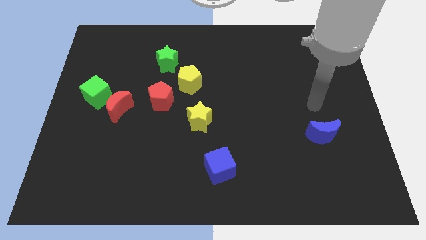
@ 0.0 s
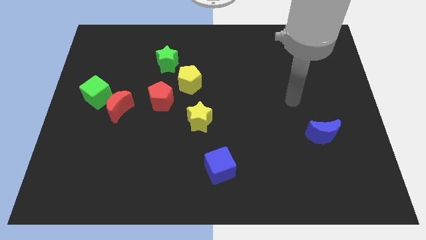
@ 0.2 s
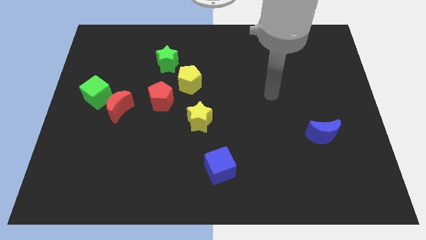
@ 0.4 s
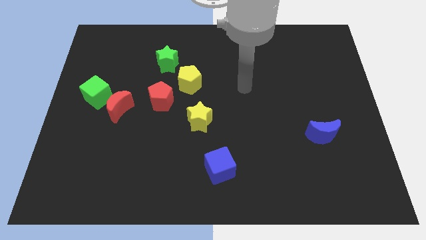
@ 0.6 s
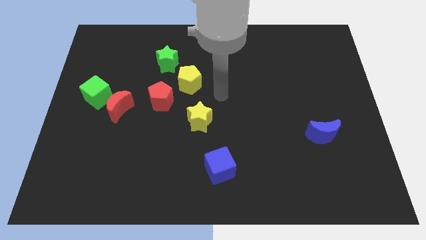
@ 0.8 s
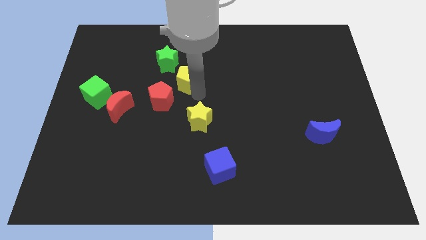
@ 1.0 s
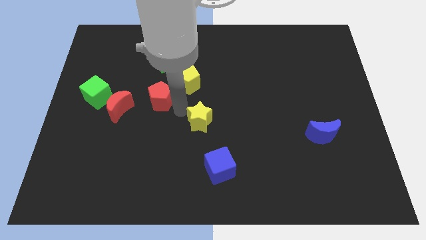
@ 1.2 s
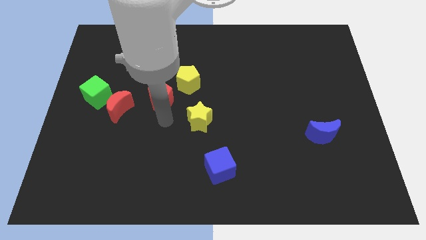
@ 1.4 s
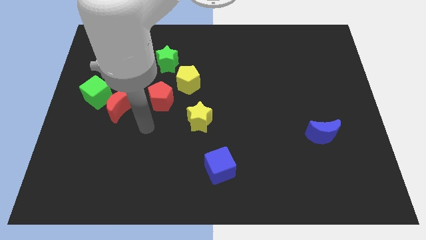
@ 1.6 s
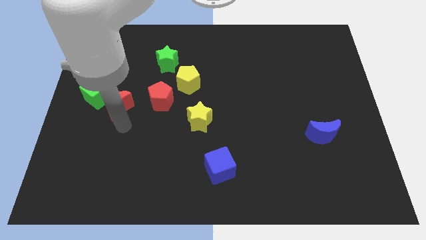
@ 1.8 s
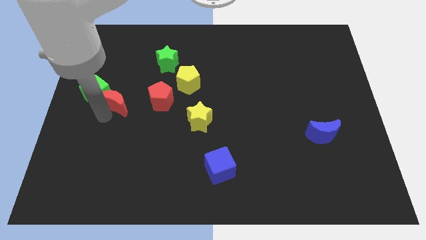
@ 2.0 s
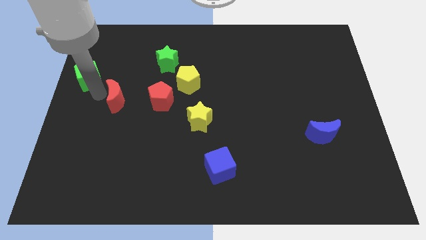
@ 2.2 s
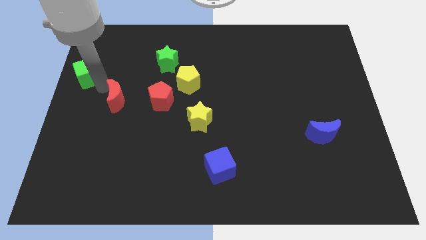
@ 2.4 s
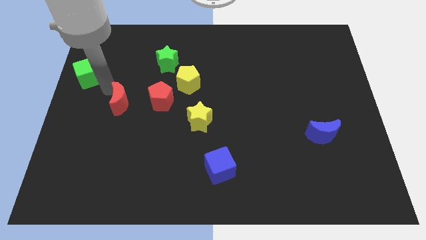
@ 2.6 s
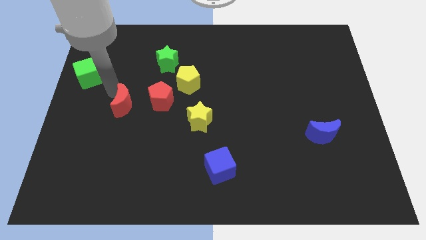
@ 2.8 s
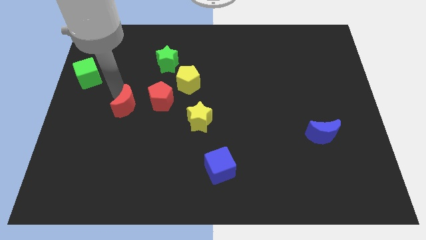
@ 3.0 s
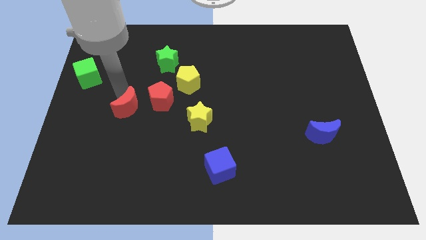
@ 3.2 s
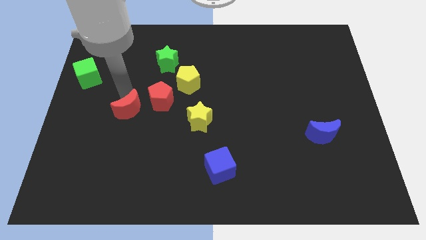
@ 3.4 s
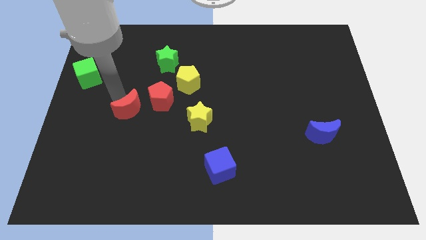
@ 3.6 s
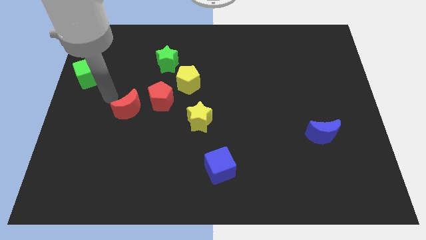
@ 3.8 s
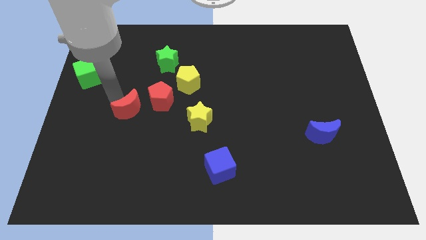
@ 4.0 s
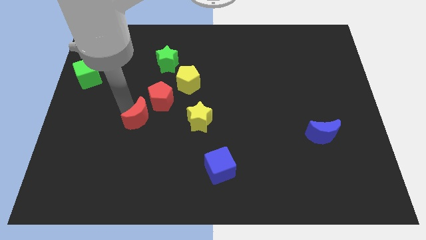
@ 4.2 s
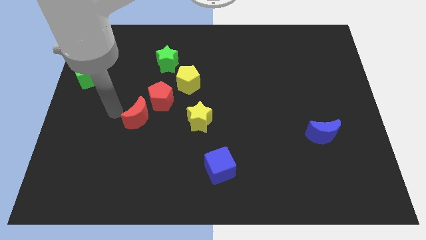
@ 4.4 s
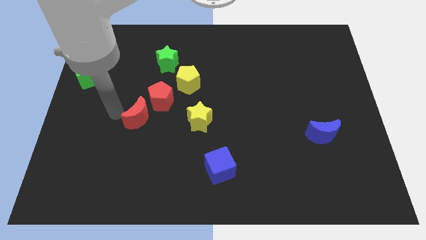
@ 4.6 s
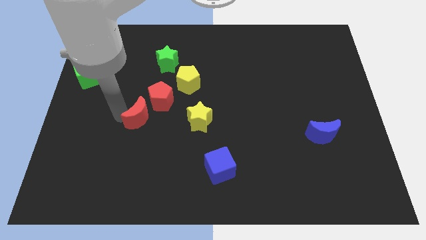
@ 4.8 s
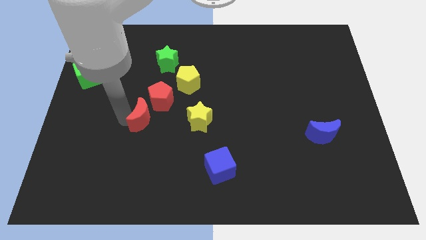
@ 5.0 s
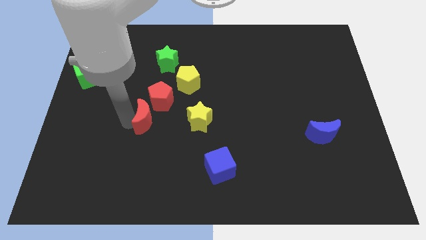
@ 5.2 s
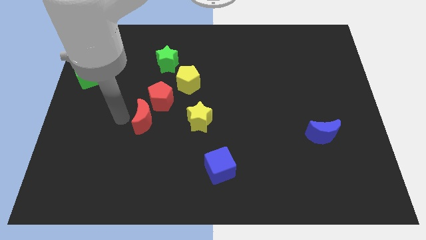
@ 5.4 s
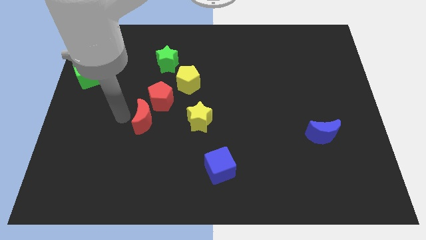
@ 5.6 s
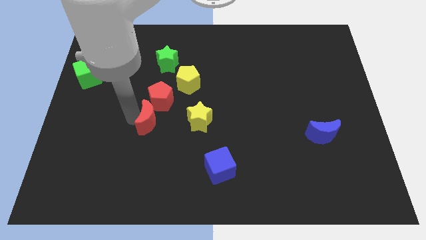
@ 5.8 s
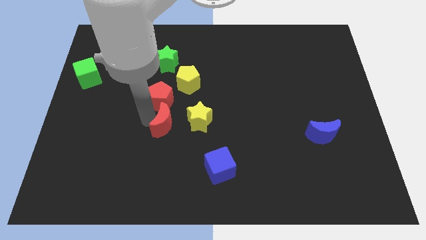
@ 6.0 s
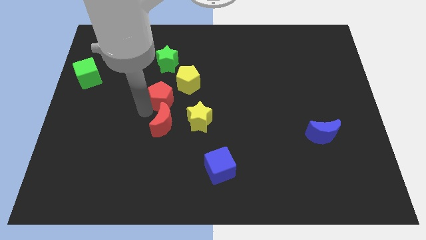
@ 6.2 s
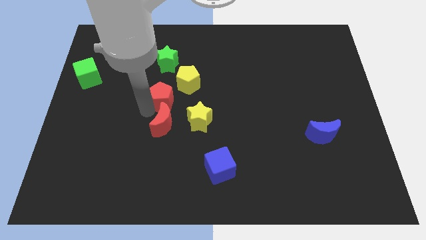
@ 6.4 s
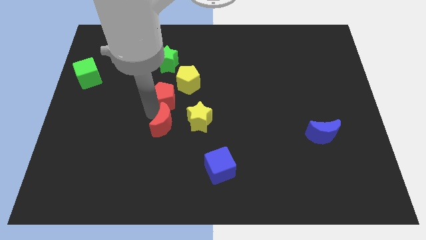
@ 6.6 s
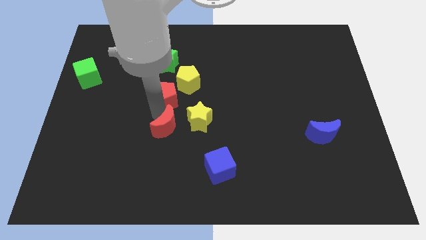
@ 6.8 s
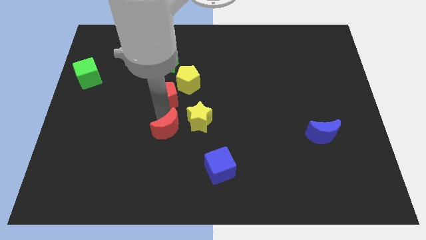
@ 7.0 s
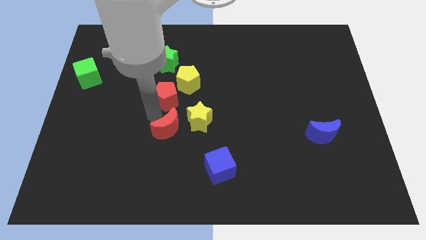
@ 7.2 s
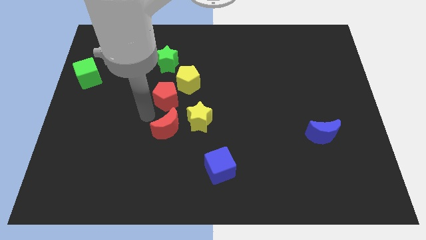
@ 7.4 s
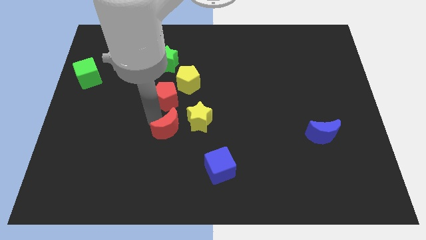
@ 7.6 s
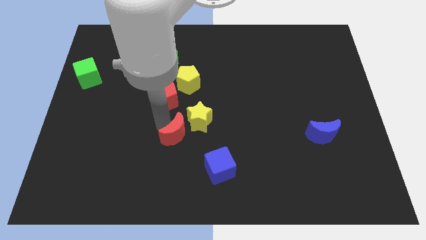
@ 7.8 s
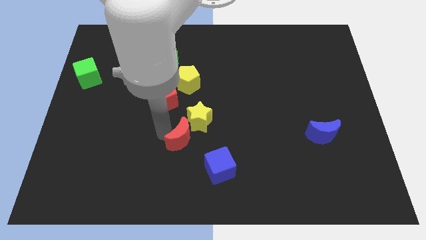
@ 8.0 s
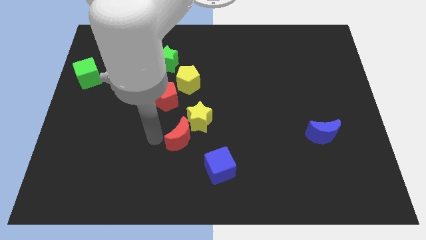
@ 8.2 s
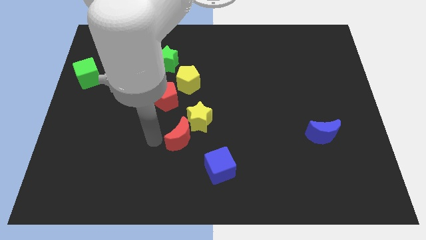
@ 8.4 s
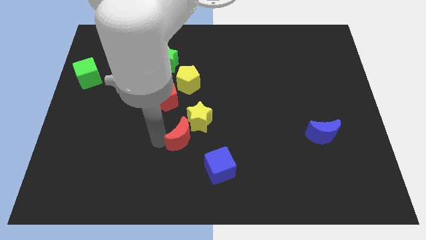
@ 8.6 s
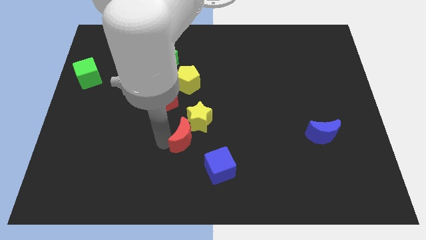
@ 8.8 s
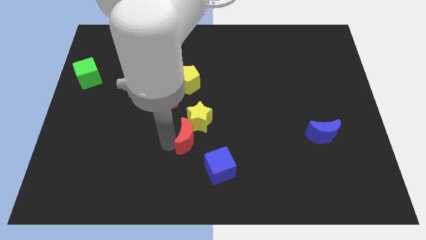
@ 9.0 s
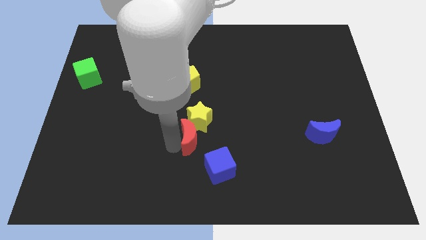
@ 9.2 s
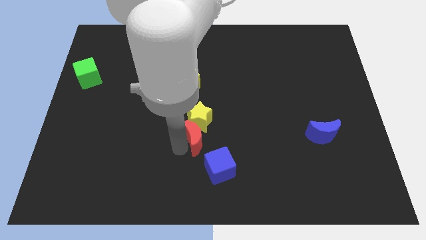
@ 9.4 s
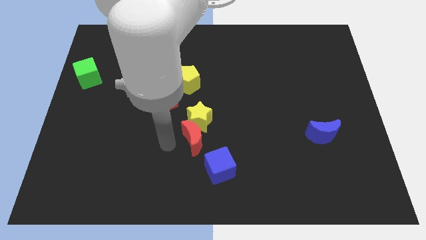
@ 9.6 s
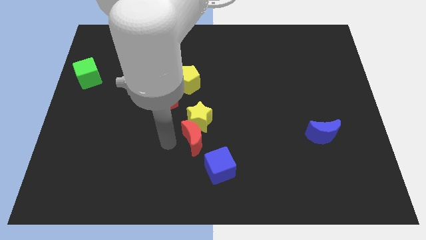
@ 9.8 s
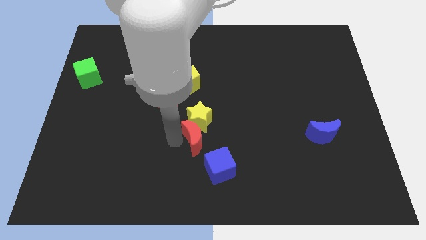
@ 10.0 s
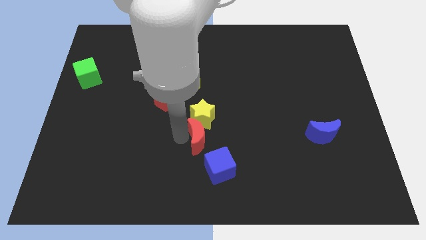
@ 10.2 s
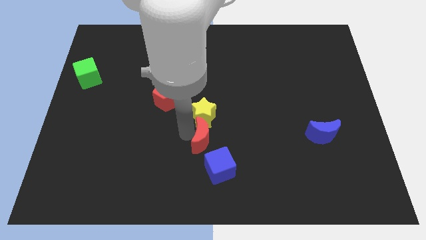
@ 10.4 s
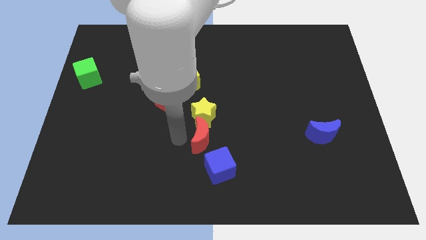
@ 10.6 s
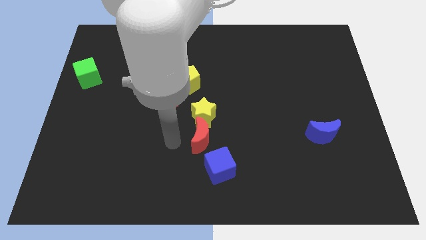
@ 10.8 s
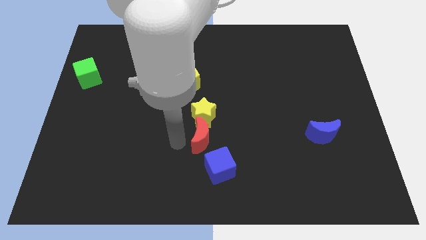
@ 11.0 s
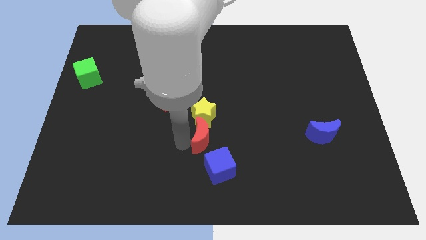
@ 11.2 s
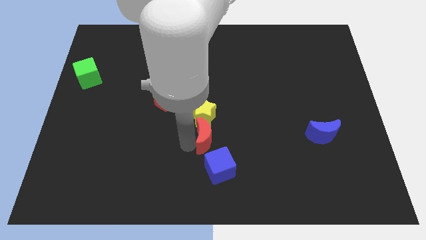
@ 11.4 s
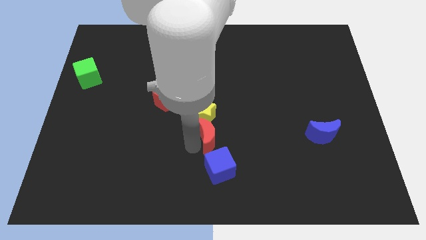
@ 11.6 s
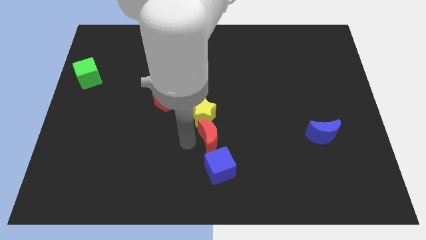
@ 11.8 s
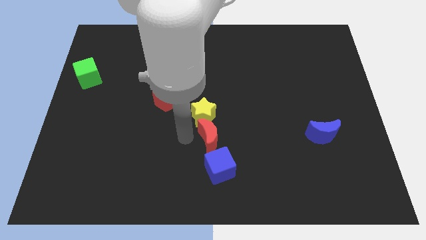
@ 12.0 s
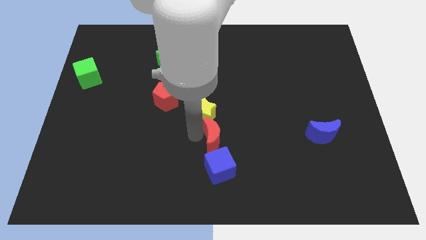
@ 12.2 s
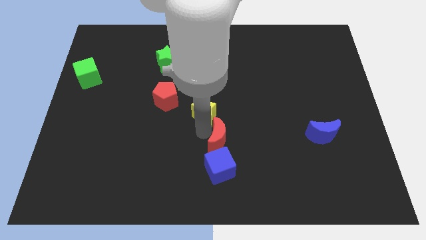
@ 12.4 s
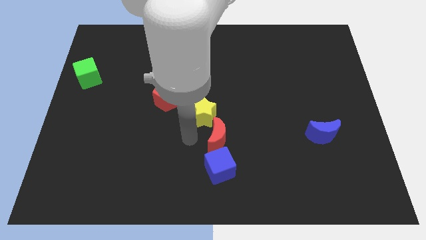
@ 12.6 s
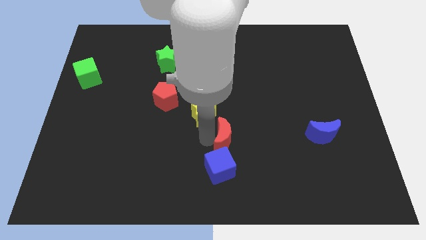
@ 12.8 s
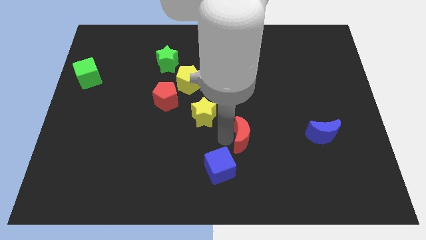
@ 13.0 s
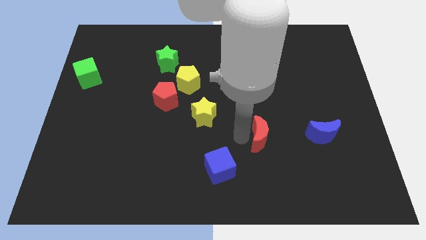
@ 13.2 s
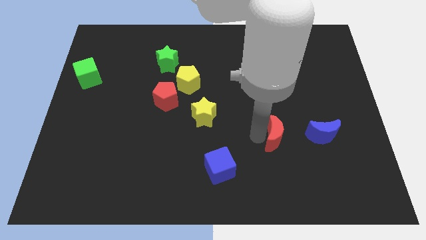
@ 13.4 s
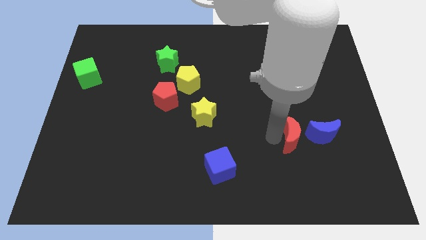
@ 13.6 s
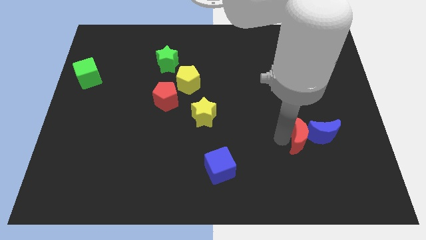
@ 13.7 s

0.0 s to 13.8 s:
move the red moon to the blue moon
